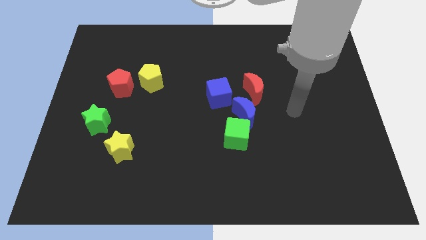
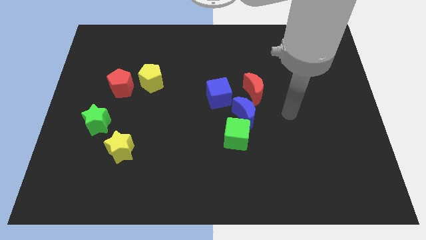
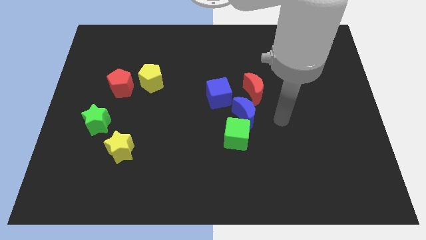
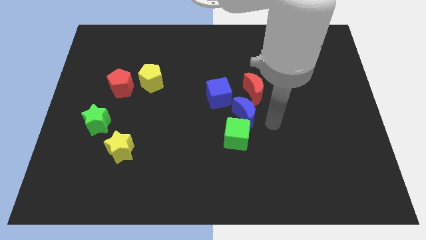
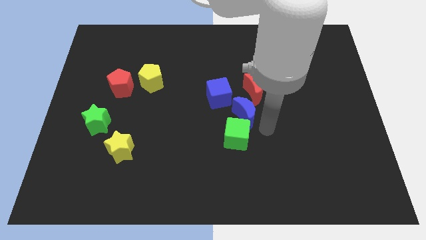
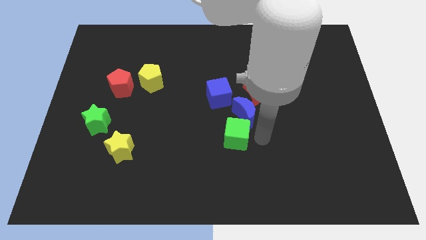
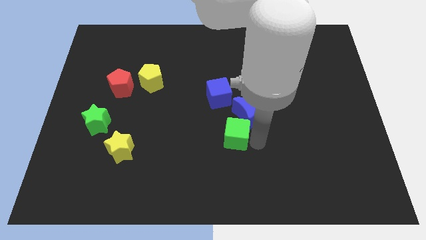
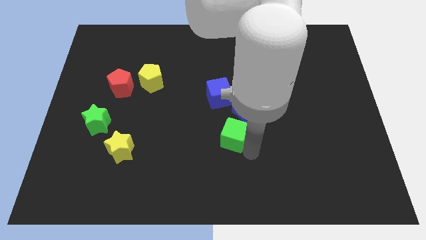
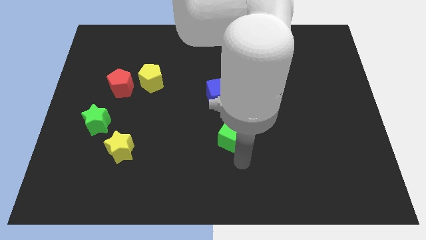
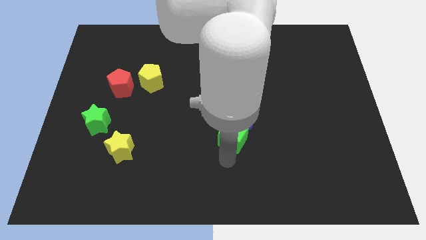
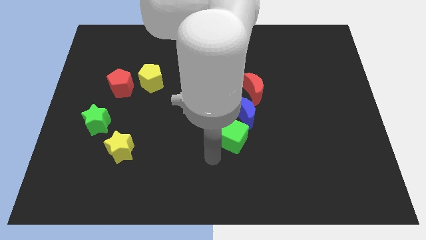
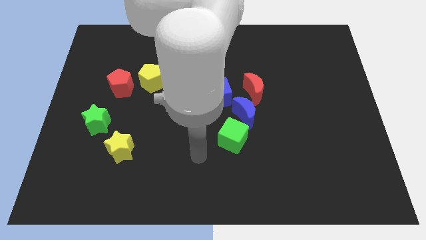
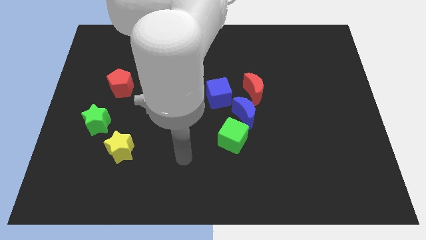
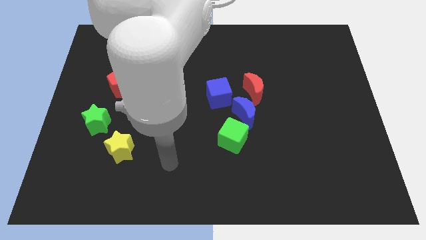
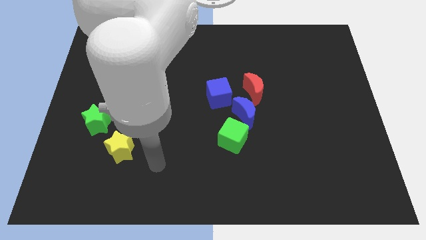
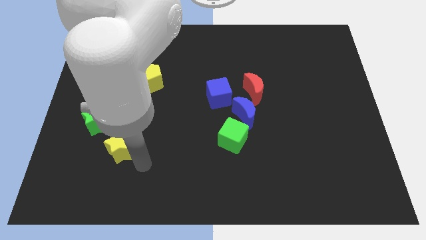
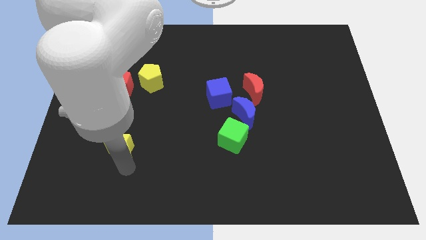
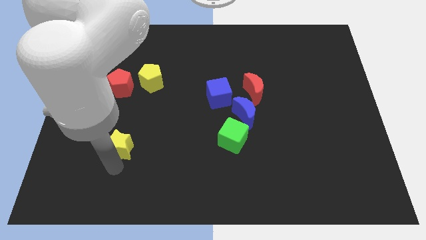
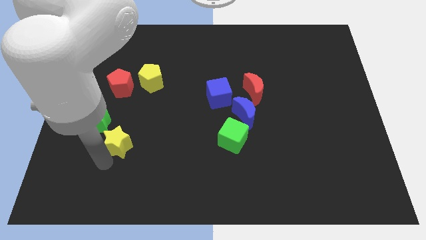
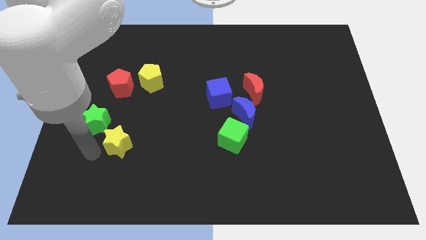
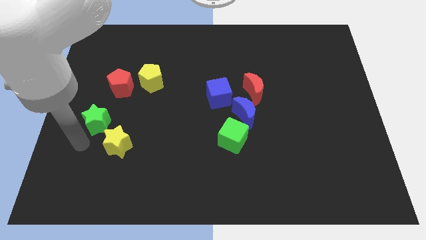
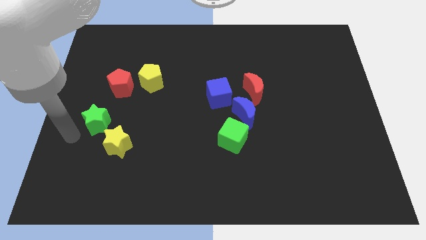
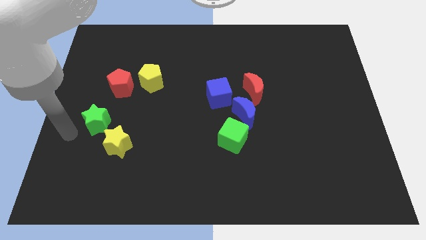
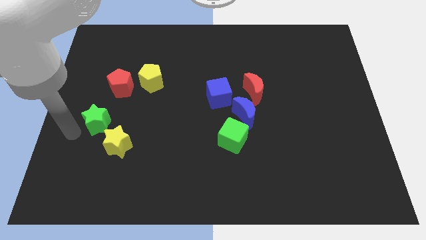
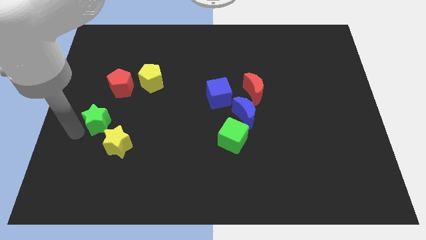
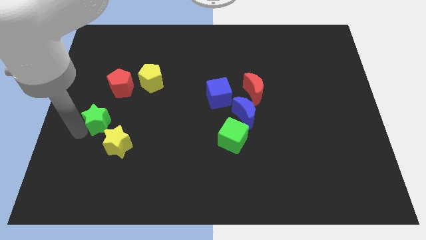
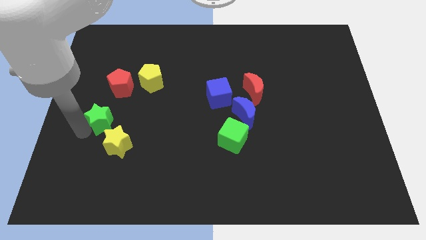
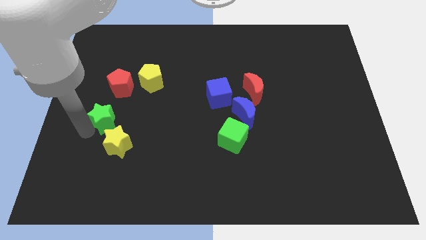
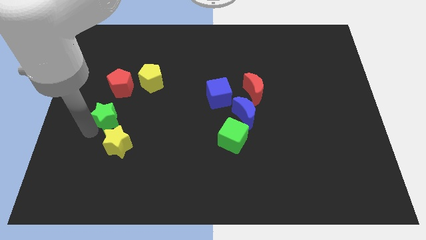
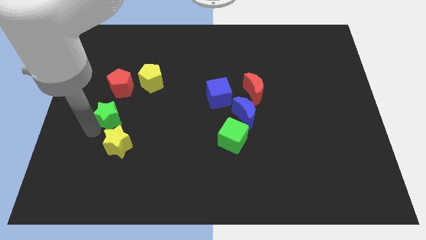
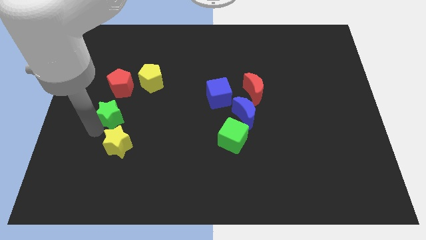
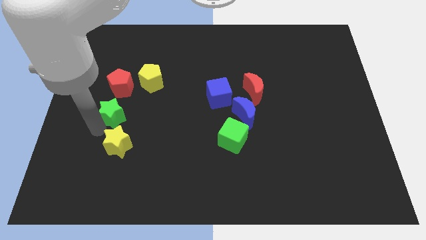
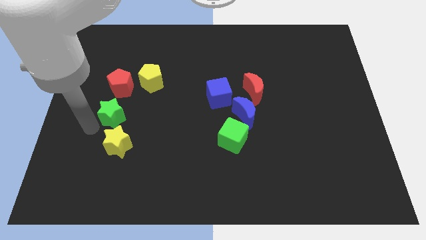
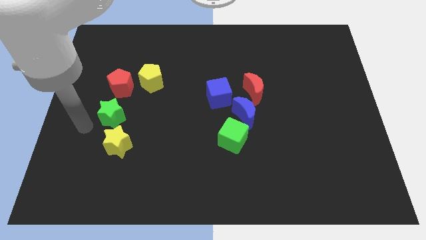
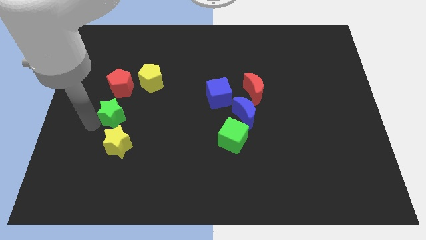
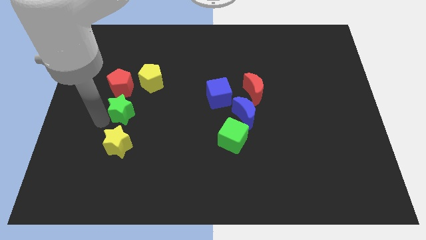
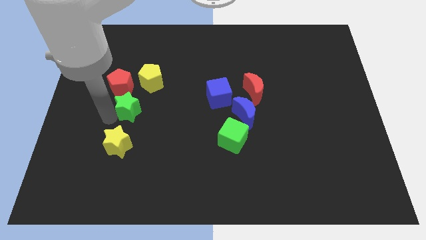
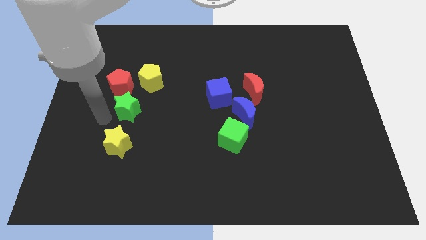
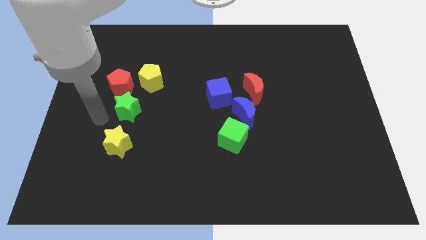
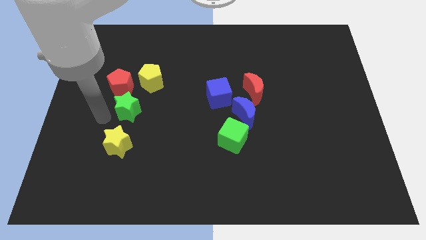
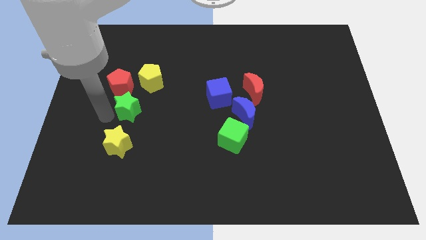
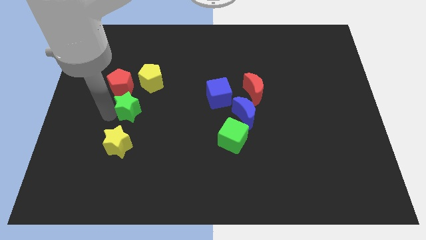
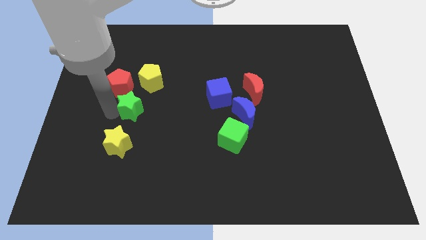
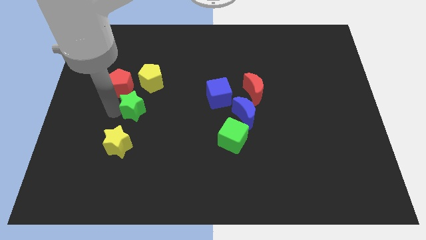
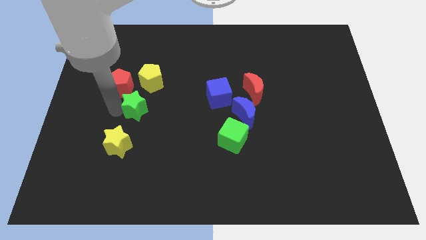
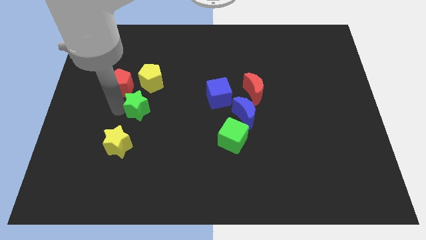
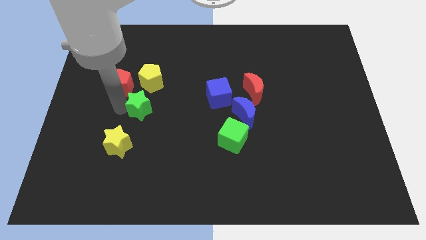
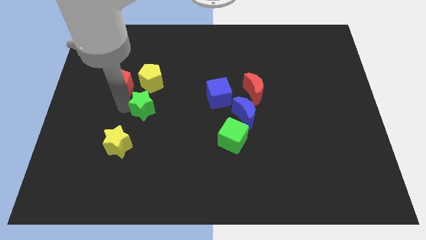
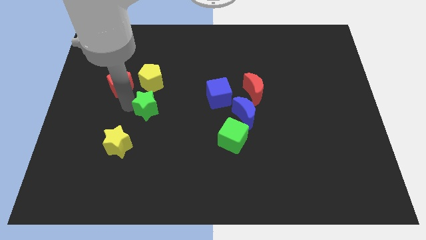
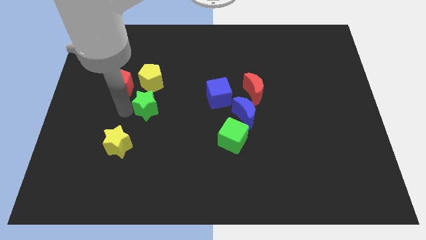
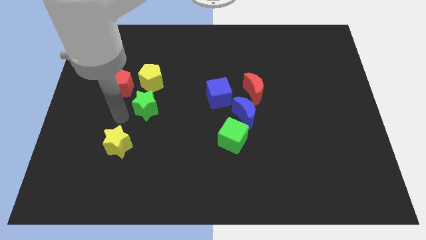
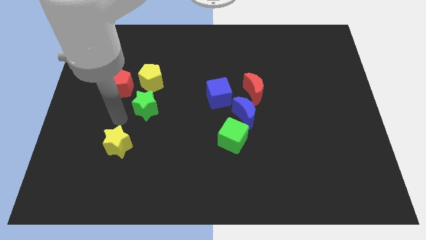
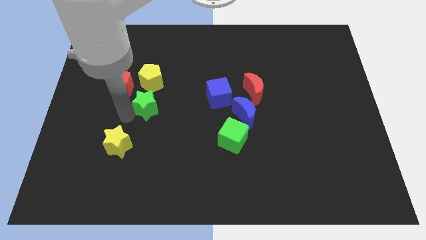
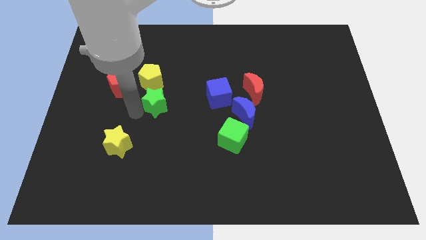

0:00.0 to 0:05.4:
slide the green star left of the blue cube

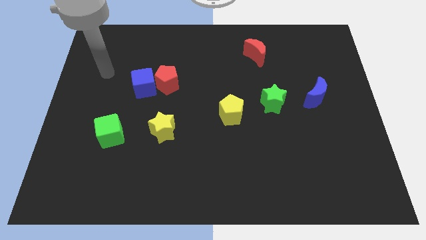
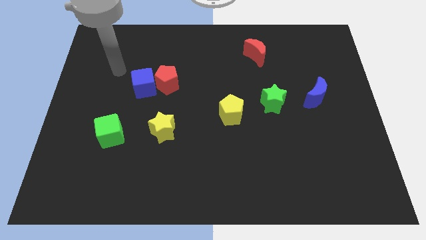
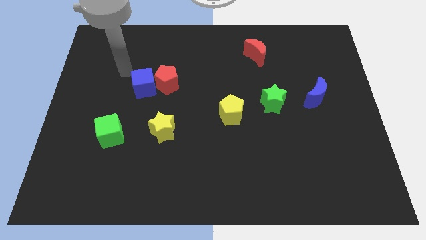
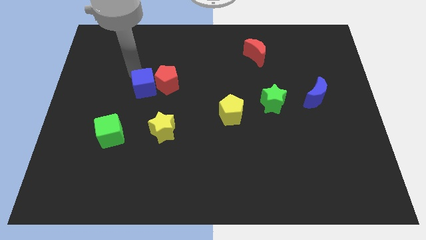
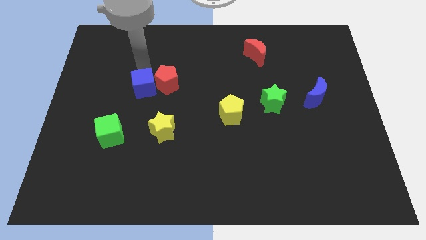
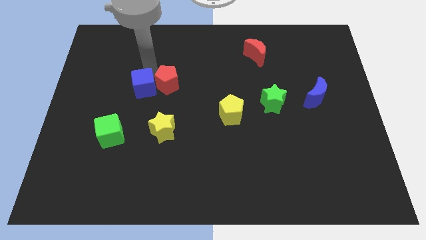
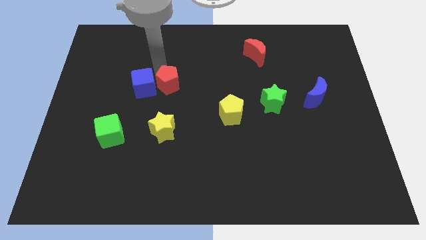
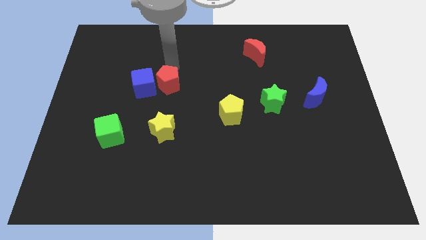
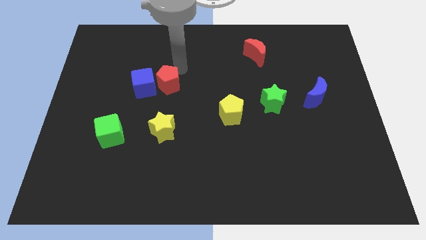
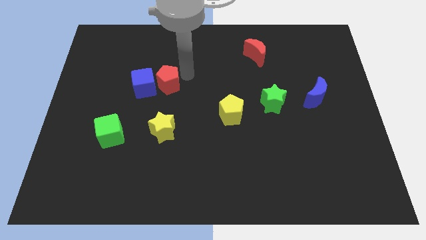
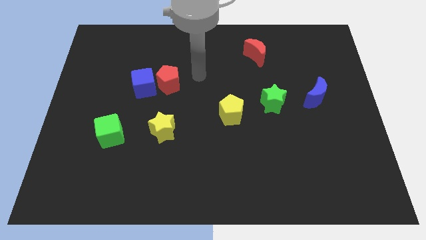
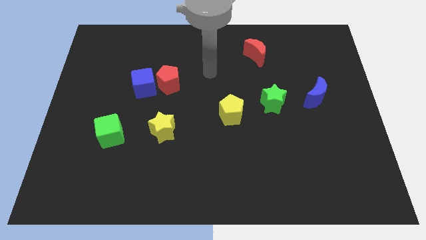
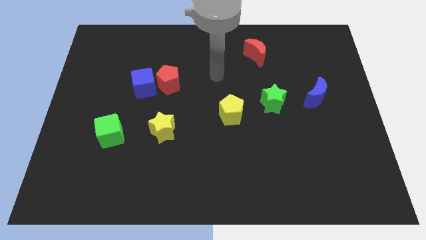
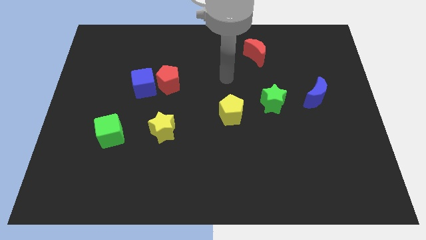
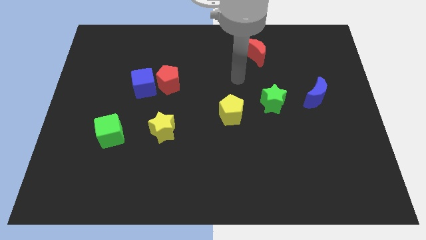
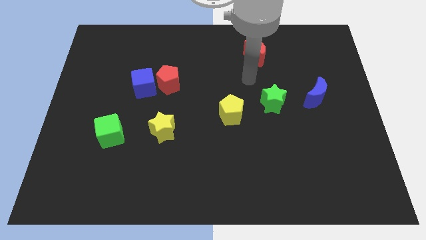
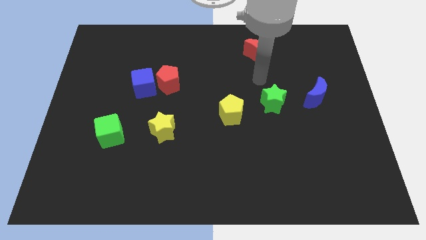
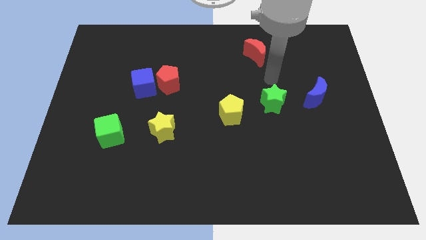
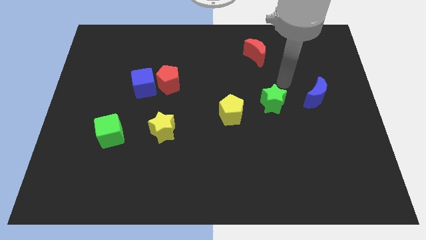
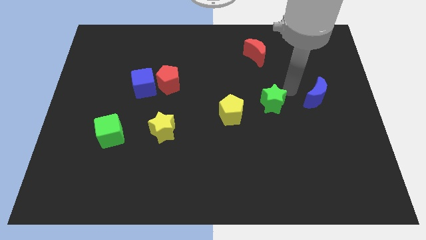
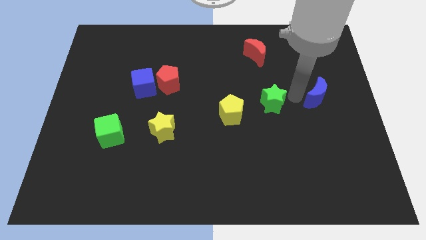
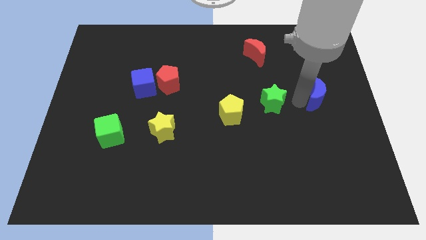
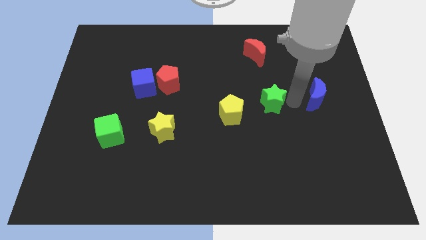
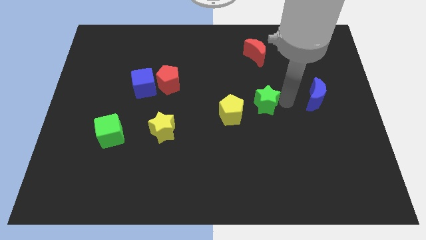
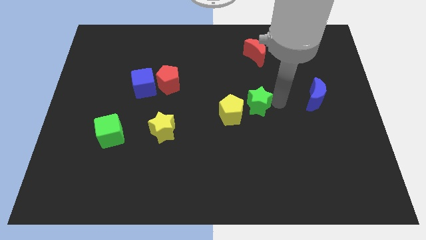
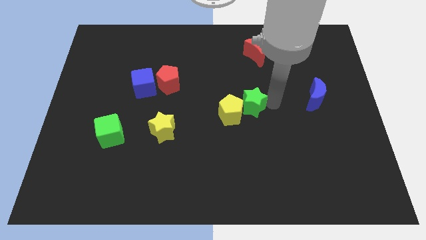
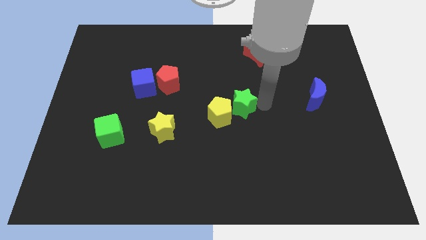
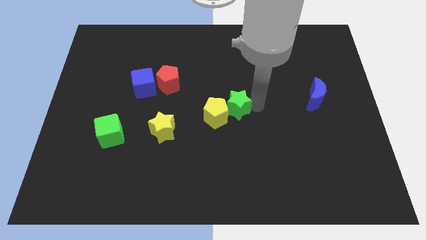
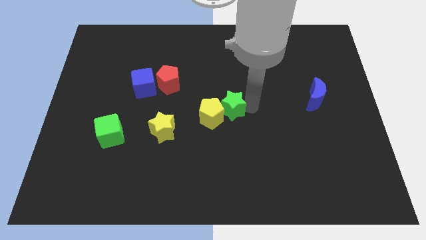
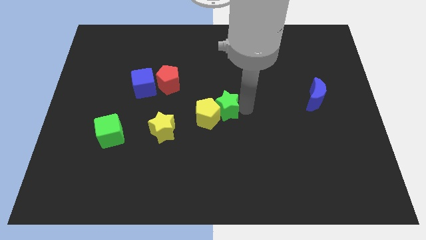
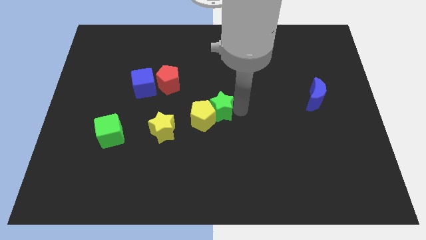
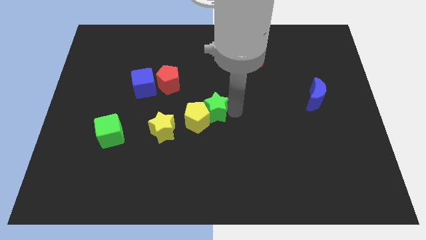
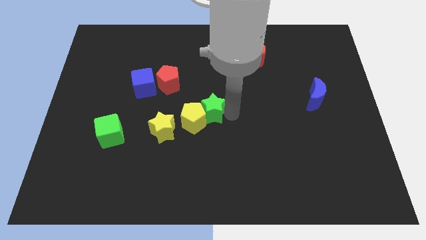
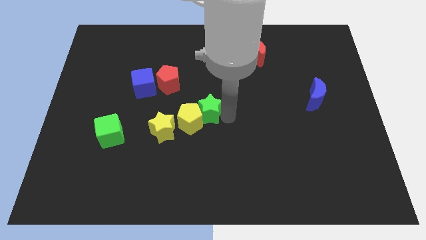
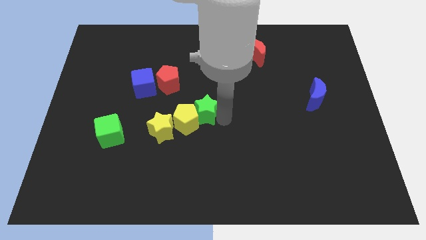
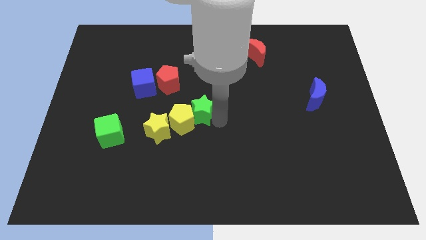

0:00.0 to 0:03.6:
move the green star to the bottom right side of the red pentagon
